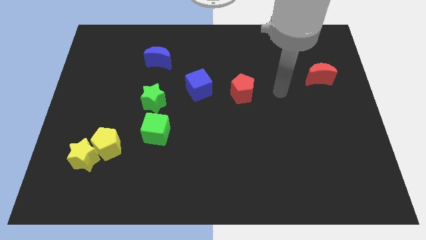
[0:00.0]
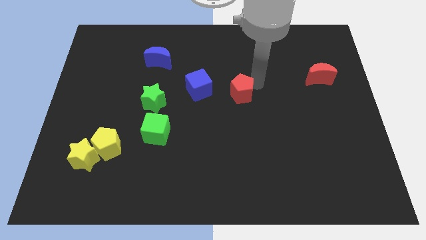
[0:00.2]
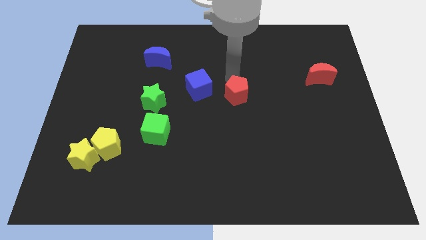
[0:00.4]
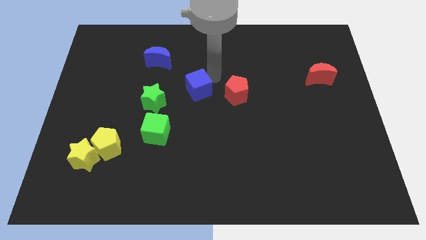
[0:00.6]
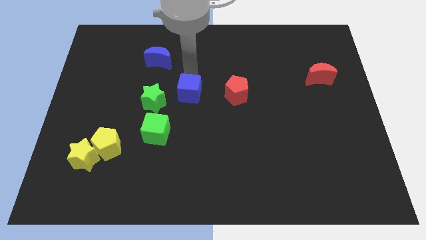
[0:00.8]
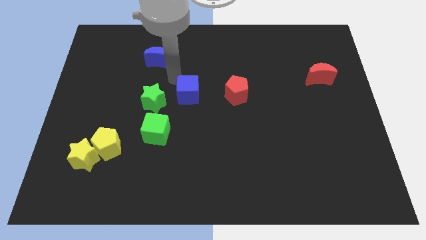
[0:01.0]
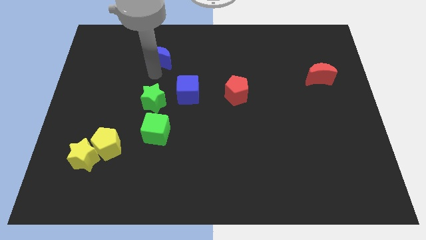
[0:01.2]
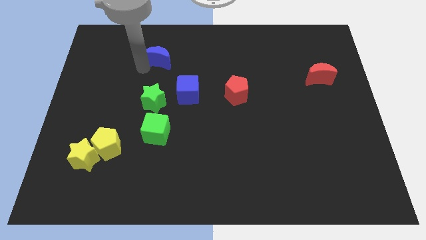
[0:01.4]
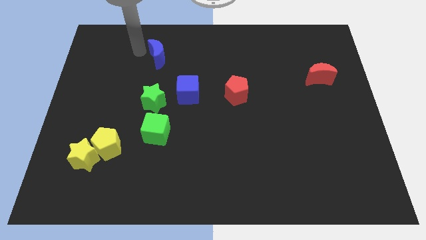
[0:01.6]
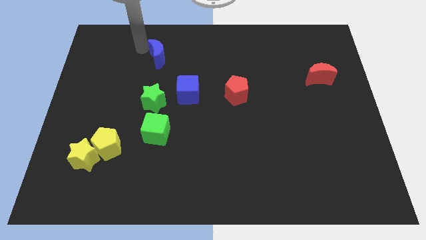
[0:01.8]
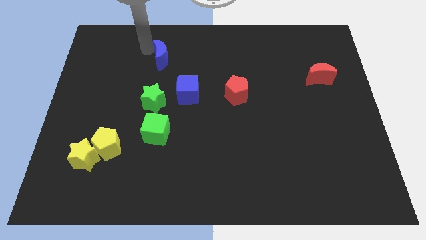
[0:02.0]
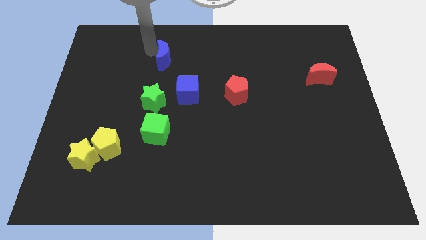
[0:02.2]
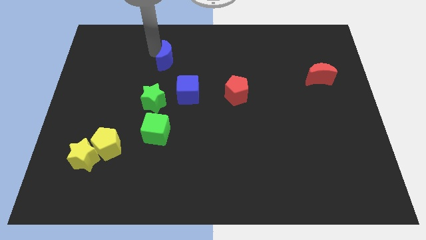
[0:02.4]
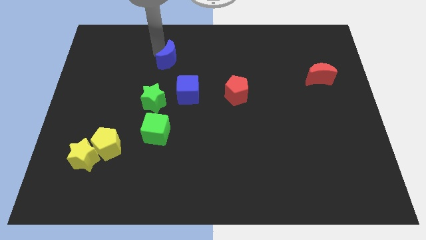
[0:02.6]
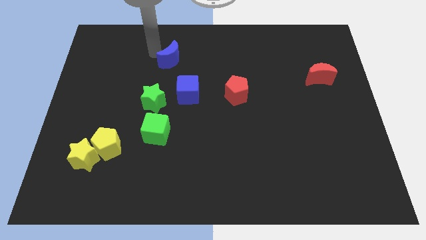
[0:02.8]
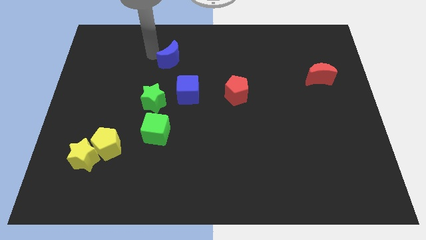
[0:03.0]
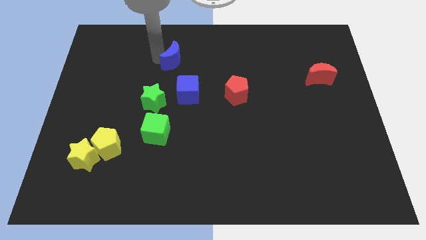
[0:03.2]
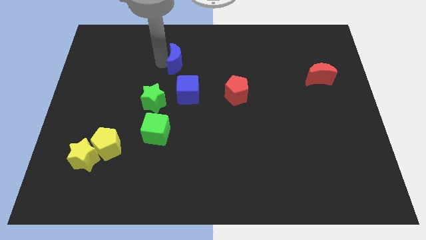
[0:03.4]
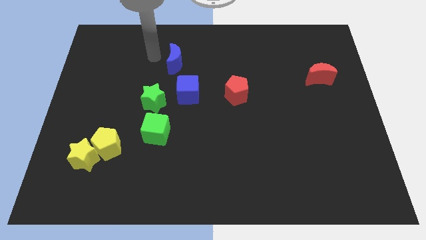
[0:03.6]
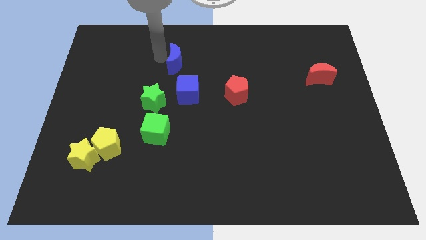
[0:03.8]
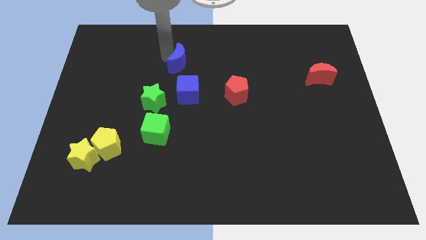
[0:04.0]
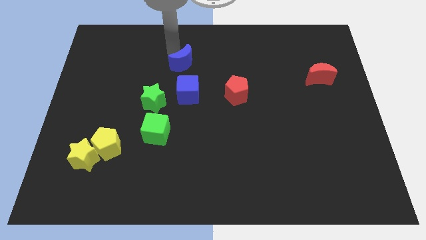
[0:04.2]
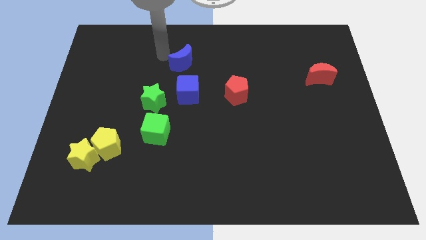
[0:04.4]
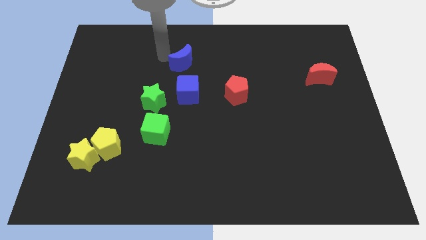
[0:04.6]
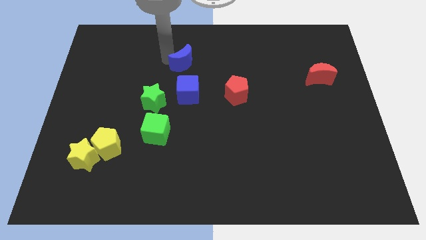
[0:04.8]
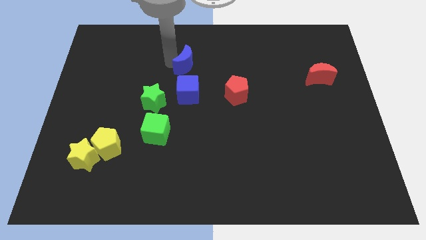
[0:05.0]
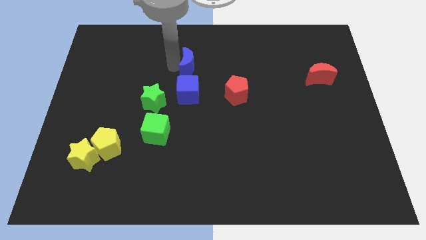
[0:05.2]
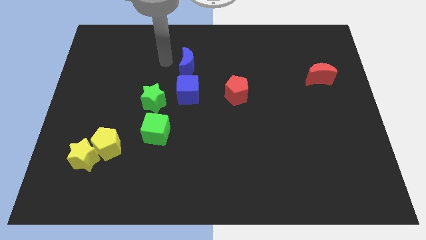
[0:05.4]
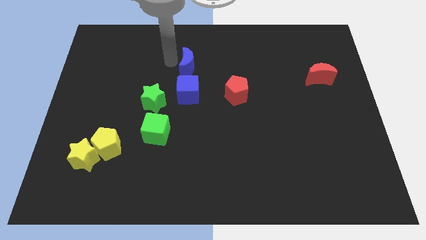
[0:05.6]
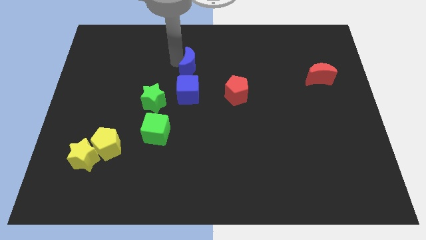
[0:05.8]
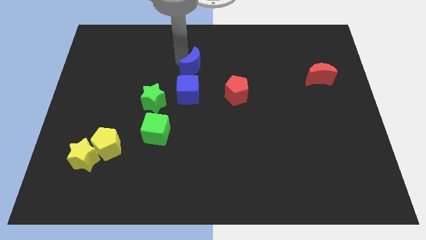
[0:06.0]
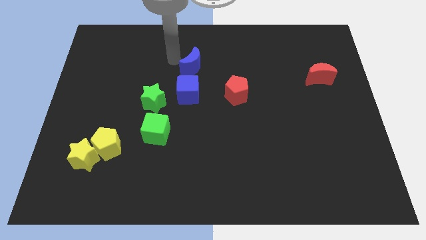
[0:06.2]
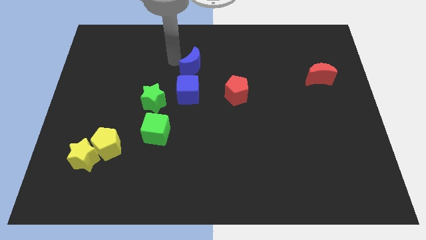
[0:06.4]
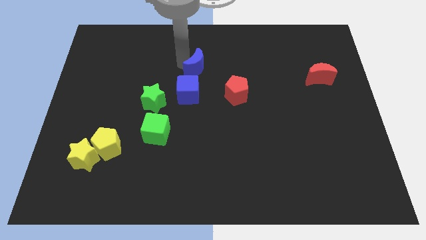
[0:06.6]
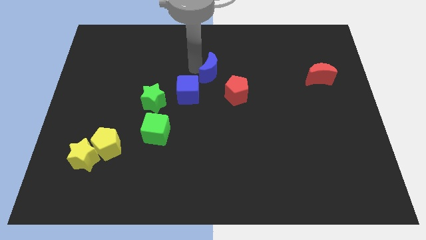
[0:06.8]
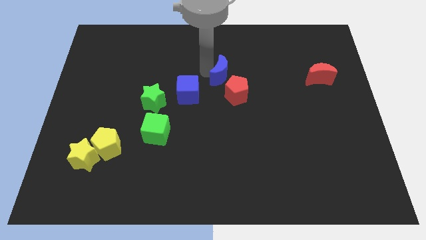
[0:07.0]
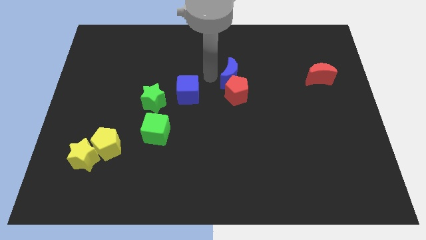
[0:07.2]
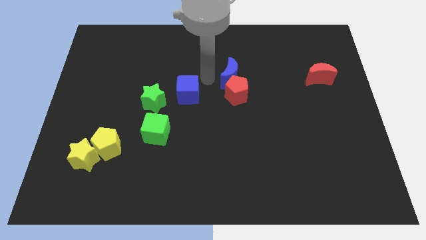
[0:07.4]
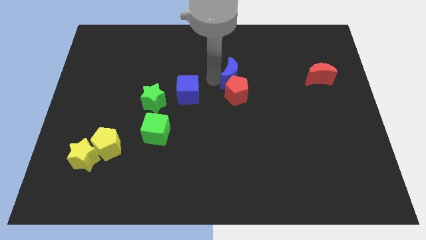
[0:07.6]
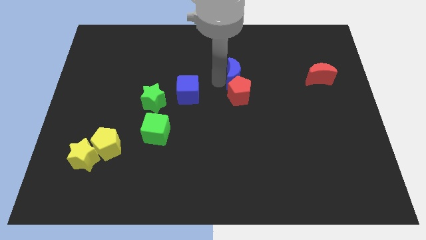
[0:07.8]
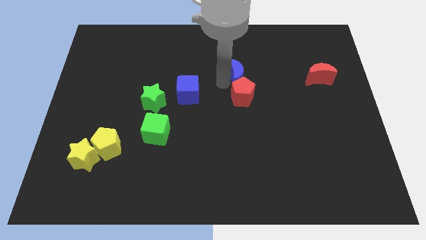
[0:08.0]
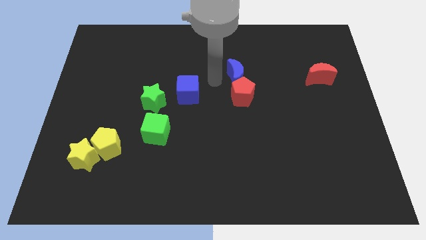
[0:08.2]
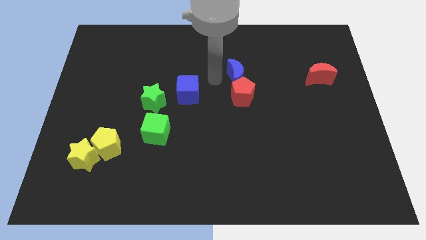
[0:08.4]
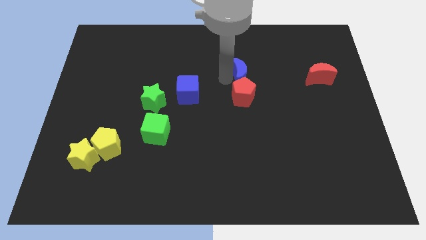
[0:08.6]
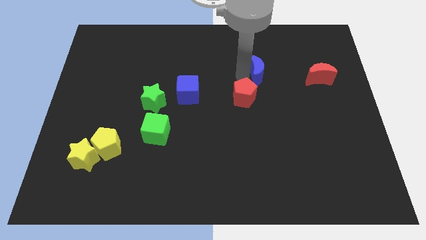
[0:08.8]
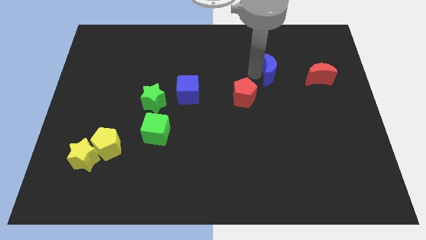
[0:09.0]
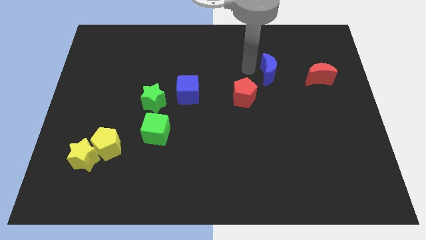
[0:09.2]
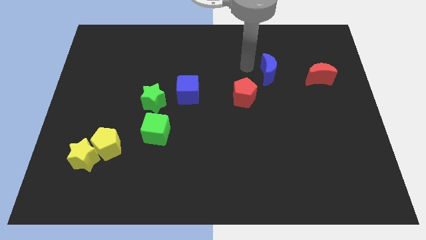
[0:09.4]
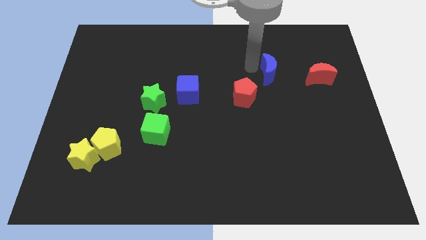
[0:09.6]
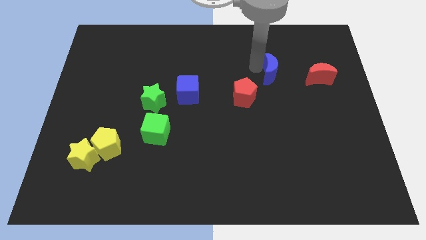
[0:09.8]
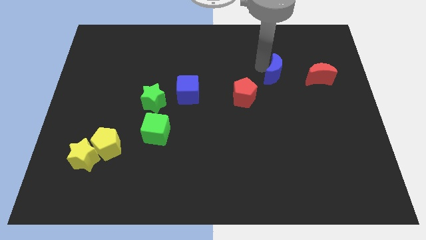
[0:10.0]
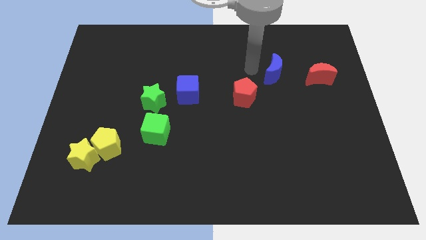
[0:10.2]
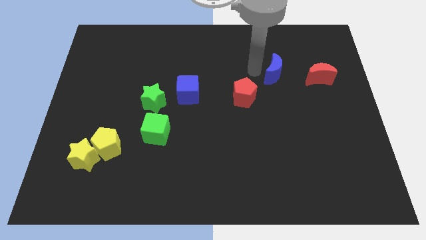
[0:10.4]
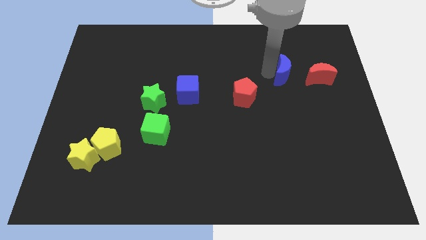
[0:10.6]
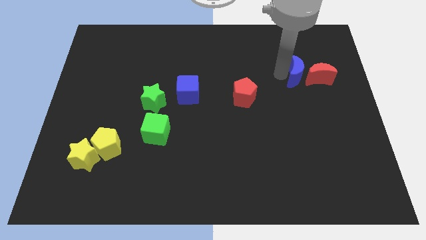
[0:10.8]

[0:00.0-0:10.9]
move the blue moon to the red moon

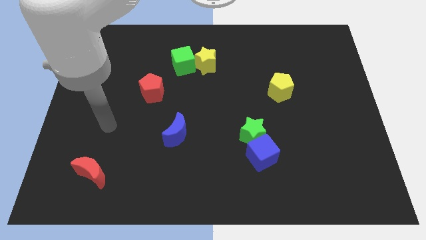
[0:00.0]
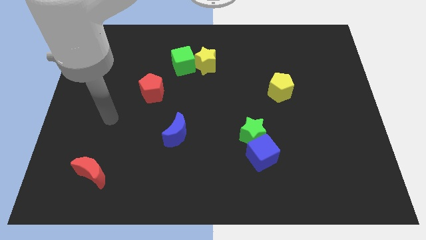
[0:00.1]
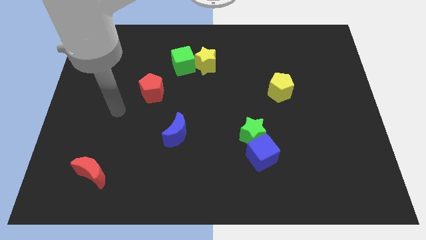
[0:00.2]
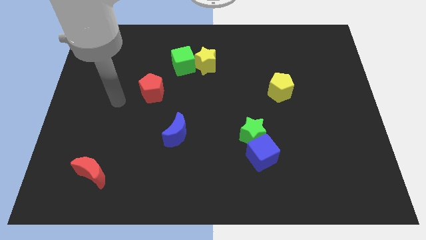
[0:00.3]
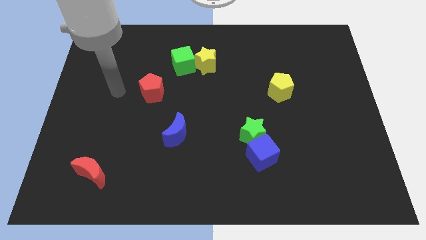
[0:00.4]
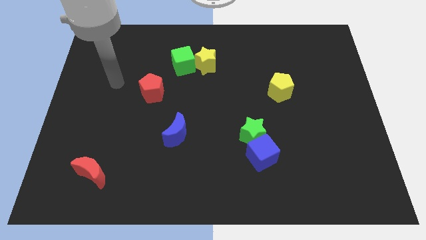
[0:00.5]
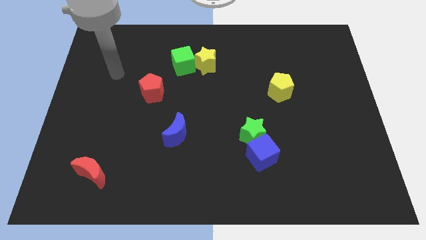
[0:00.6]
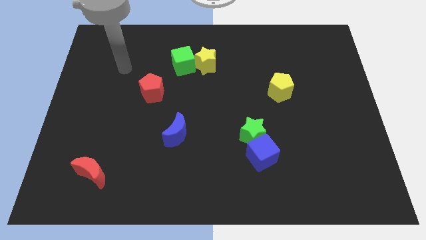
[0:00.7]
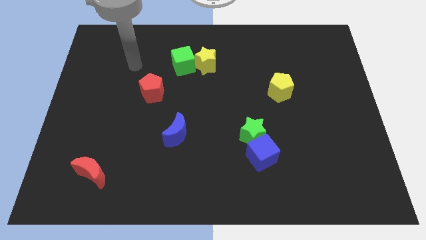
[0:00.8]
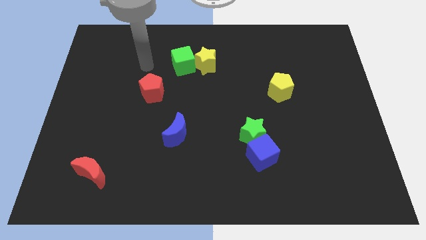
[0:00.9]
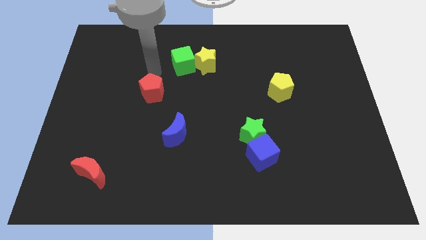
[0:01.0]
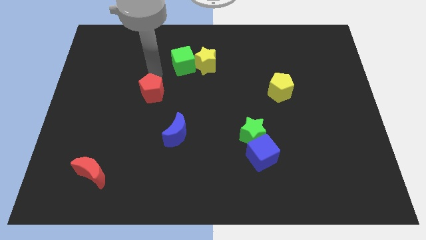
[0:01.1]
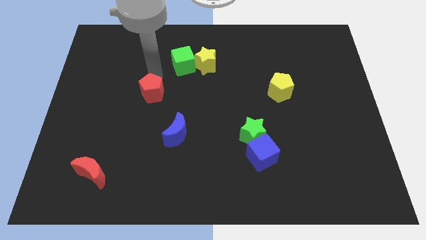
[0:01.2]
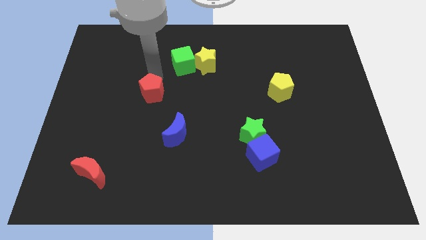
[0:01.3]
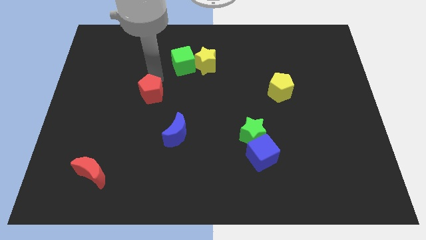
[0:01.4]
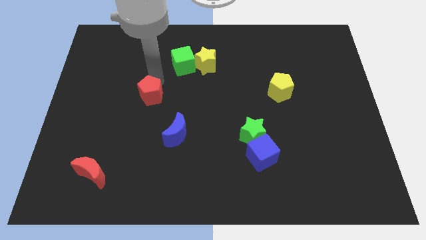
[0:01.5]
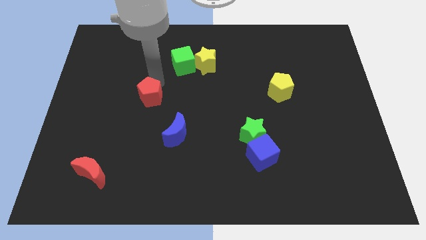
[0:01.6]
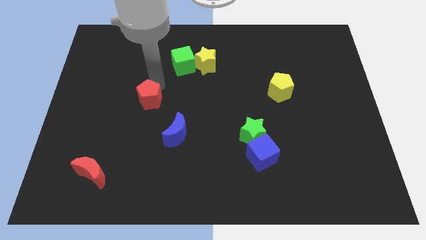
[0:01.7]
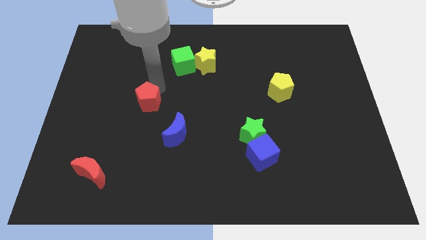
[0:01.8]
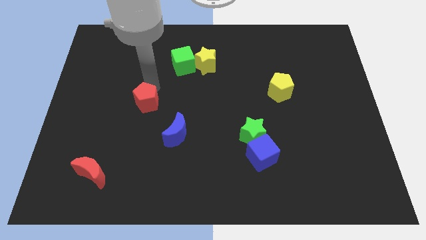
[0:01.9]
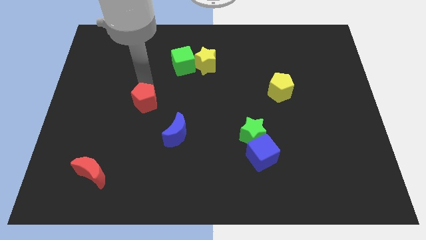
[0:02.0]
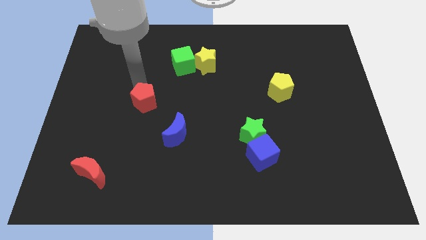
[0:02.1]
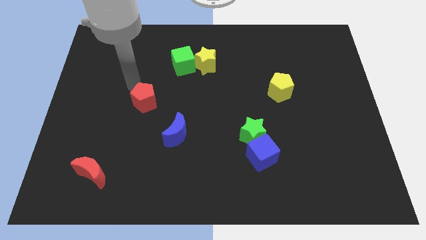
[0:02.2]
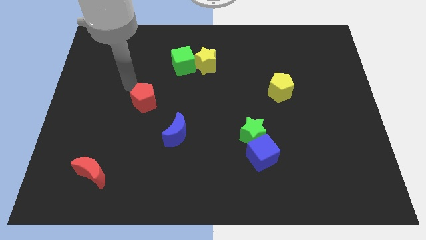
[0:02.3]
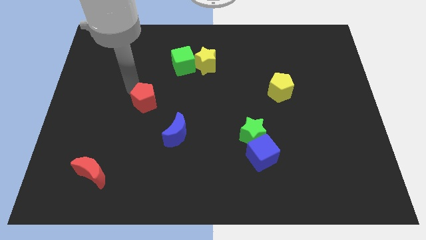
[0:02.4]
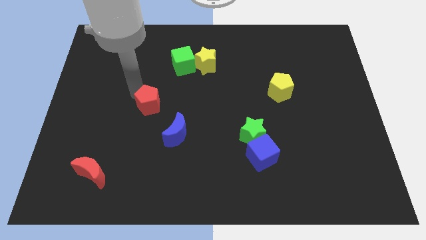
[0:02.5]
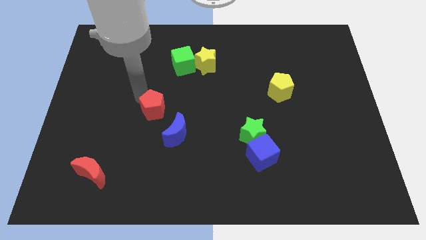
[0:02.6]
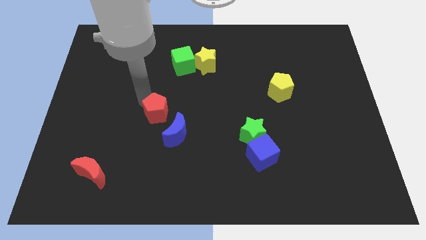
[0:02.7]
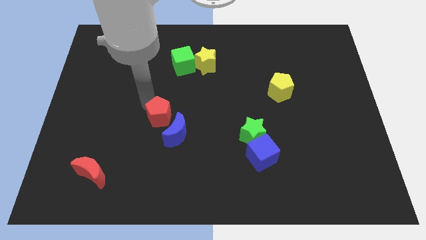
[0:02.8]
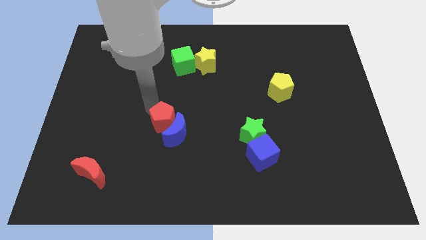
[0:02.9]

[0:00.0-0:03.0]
push the red pentagon to the blue moon
